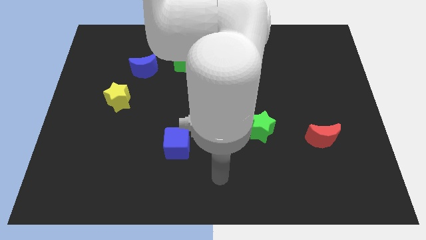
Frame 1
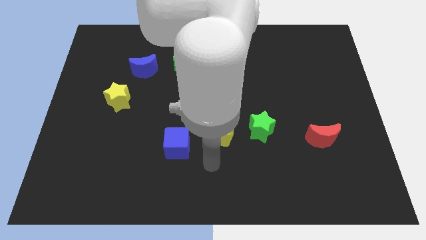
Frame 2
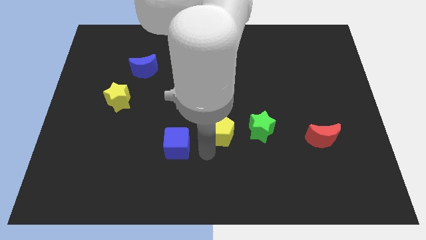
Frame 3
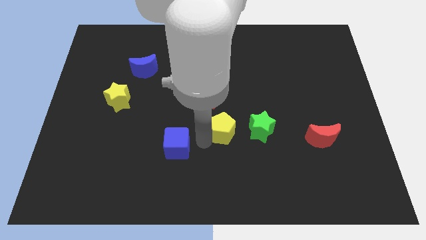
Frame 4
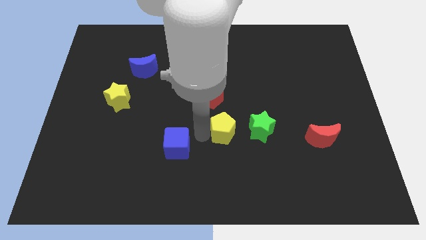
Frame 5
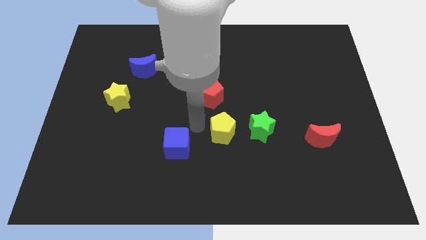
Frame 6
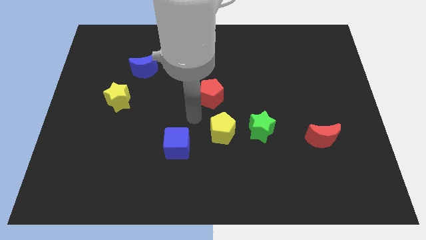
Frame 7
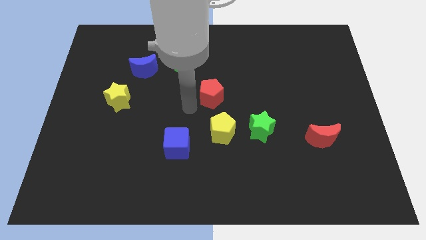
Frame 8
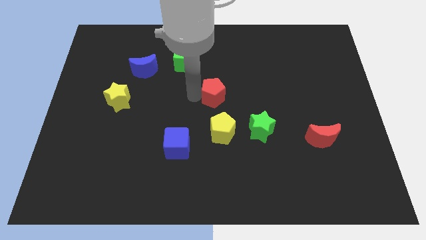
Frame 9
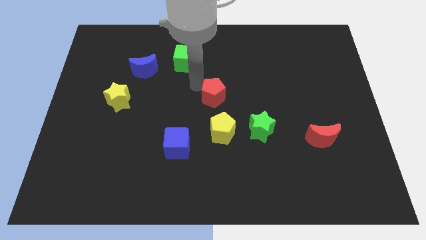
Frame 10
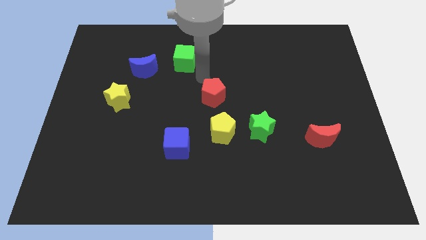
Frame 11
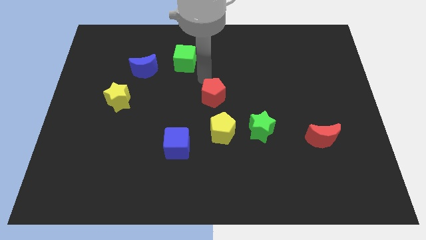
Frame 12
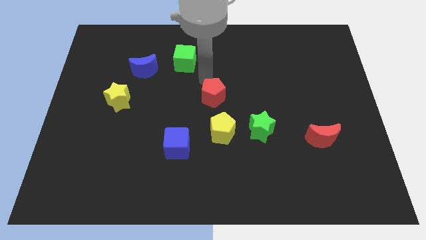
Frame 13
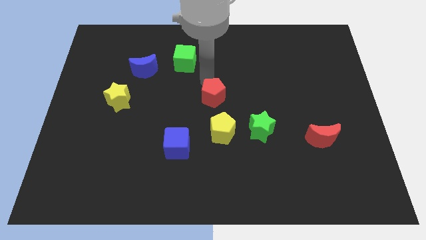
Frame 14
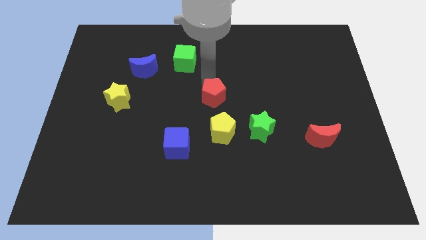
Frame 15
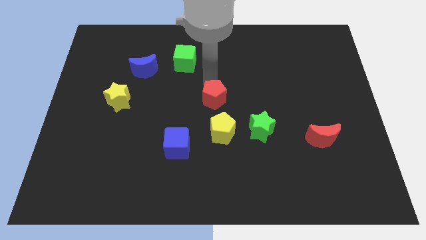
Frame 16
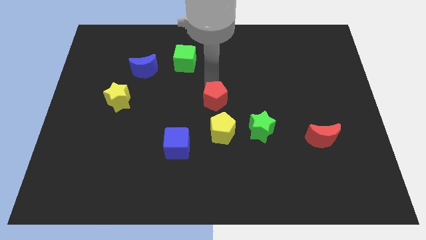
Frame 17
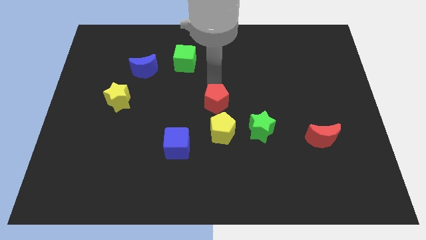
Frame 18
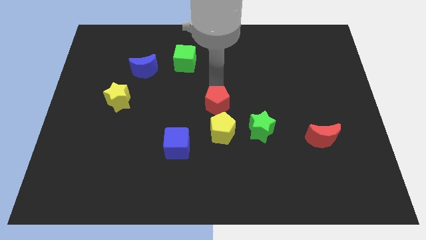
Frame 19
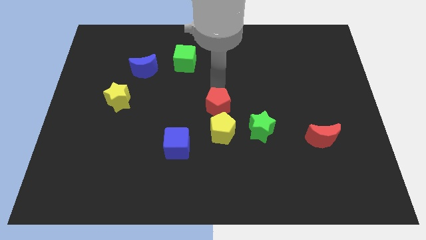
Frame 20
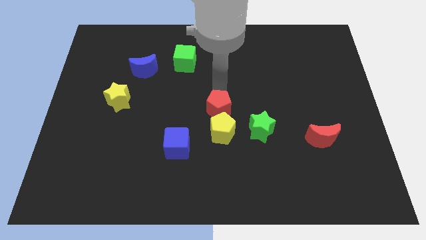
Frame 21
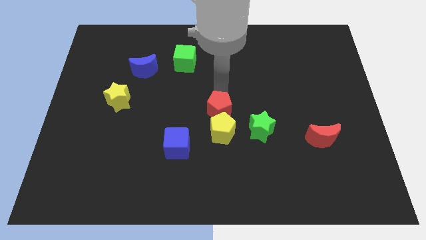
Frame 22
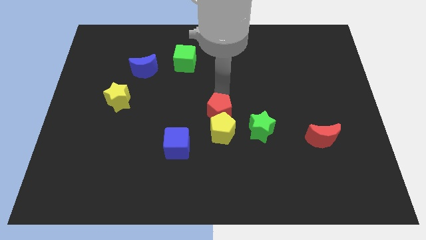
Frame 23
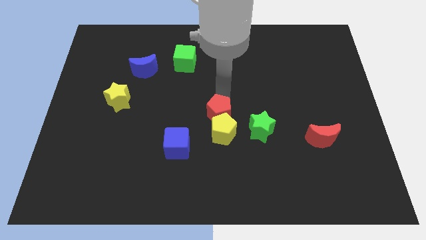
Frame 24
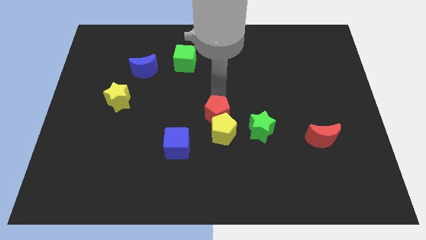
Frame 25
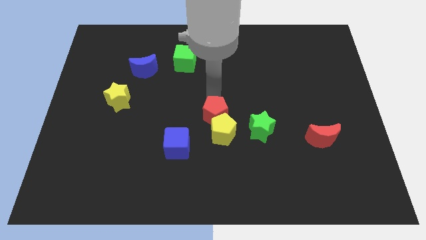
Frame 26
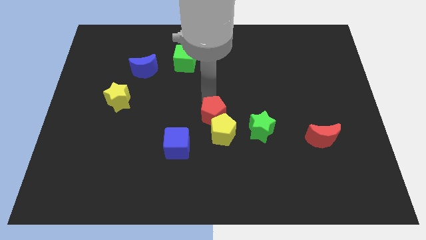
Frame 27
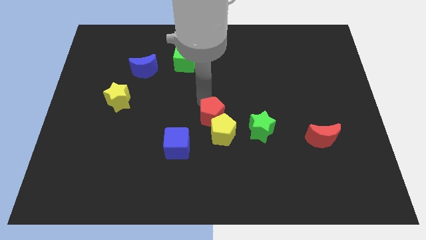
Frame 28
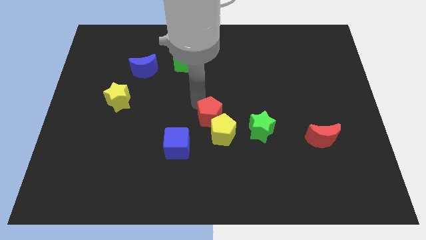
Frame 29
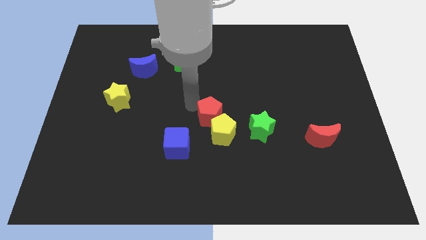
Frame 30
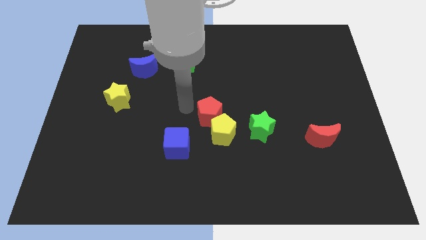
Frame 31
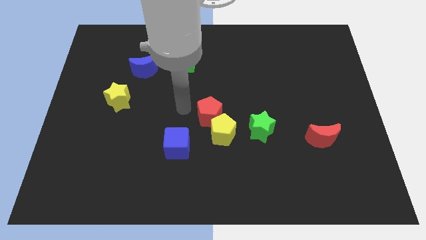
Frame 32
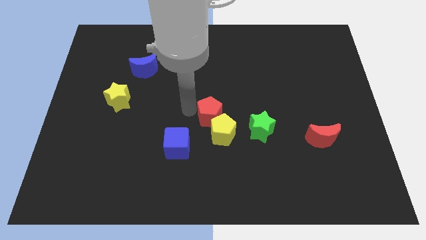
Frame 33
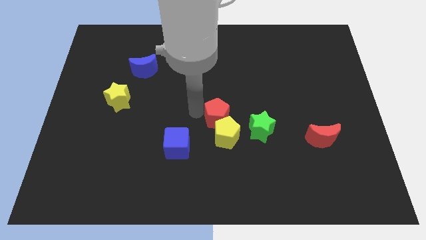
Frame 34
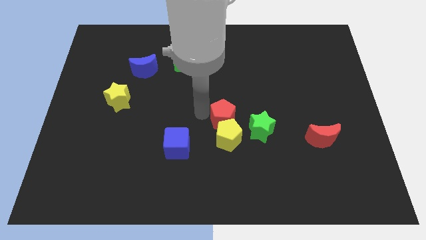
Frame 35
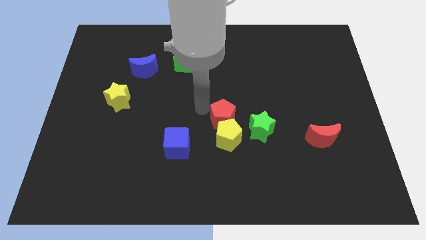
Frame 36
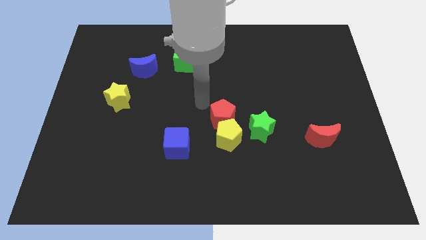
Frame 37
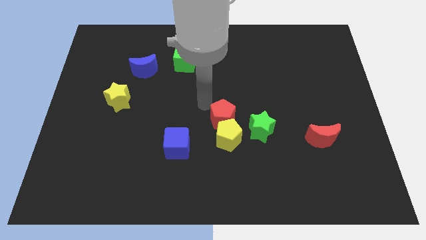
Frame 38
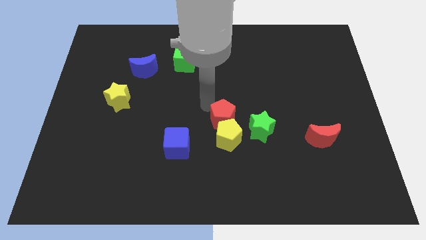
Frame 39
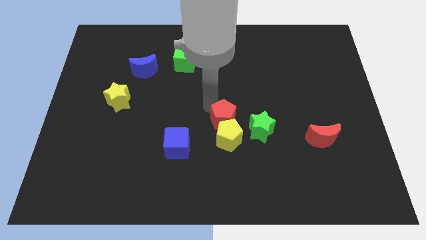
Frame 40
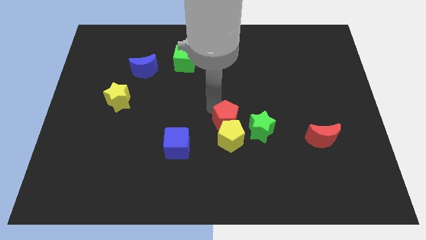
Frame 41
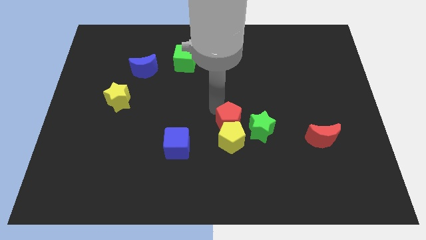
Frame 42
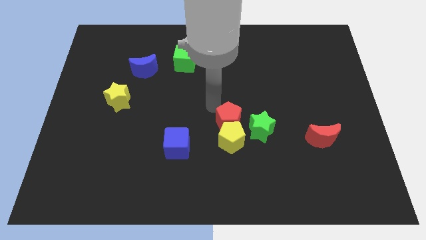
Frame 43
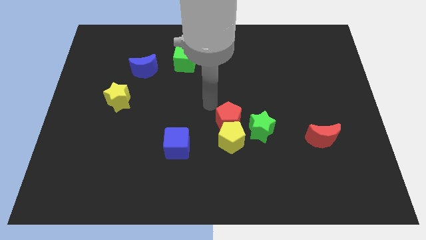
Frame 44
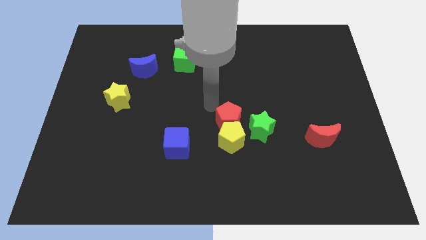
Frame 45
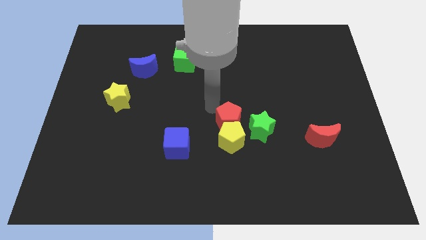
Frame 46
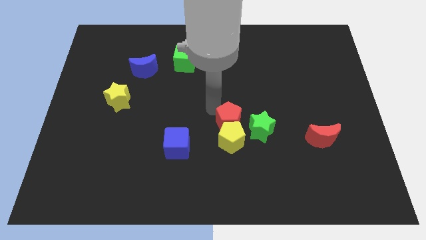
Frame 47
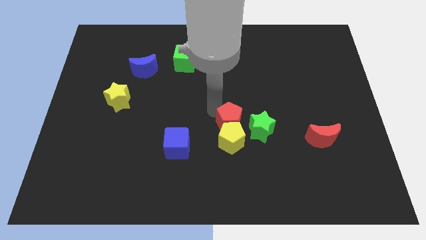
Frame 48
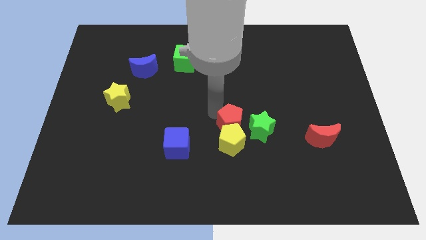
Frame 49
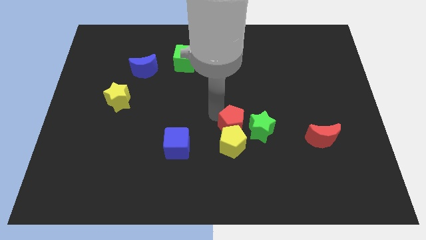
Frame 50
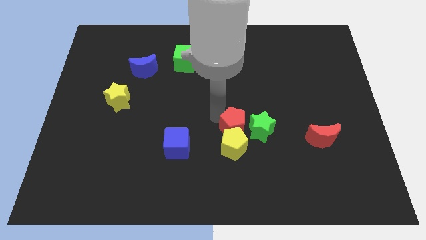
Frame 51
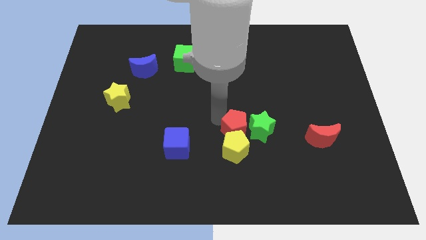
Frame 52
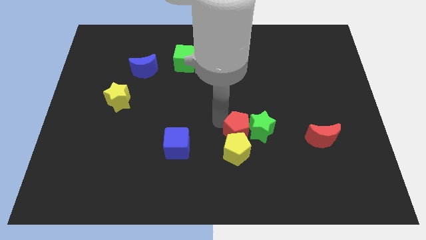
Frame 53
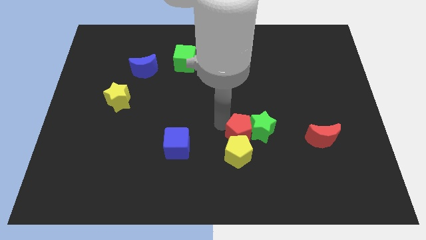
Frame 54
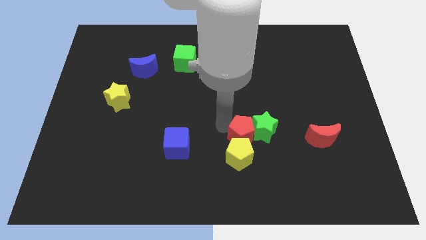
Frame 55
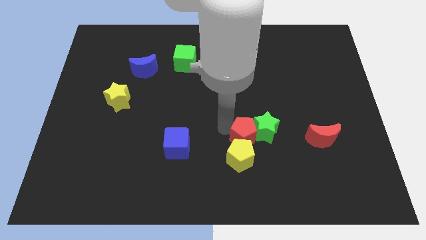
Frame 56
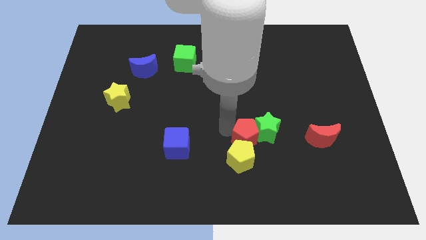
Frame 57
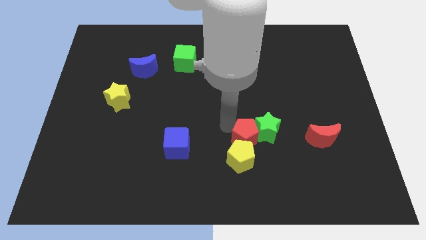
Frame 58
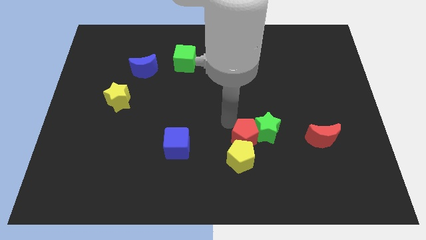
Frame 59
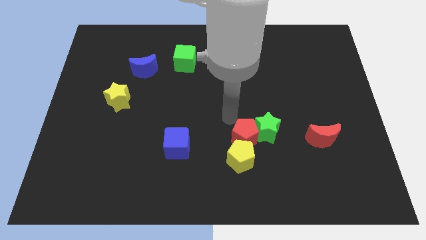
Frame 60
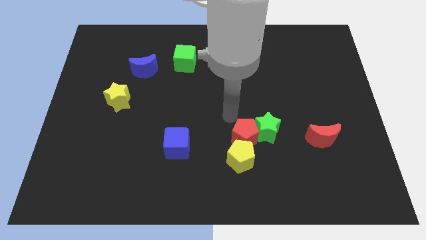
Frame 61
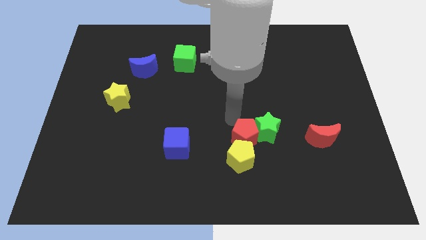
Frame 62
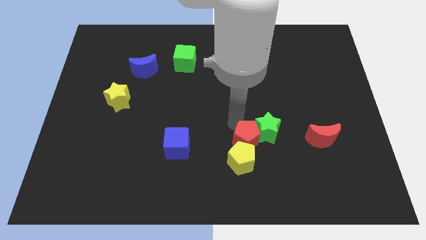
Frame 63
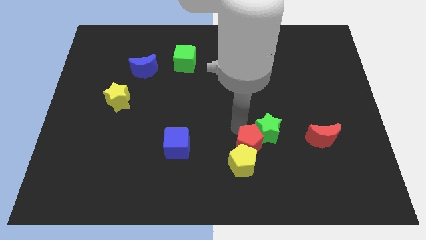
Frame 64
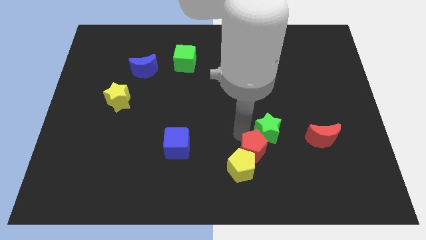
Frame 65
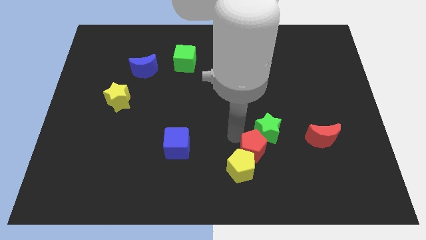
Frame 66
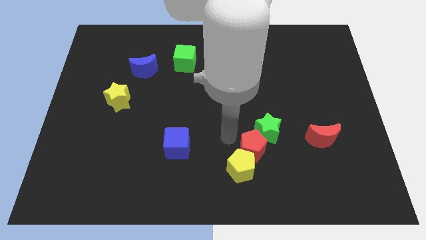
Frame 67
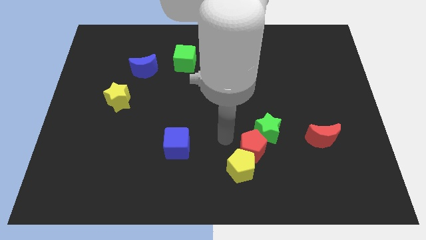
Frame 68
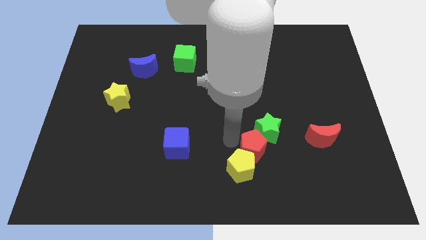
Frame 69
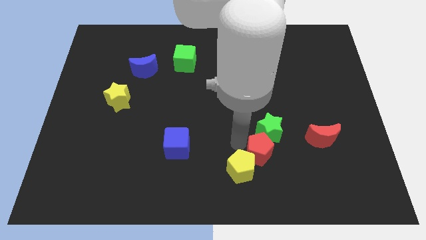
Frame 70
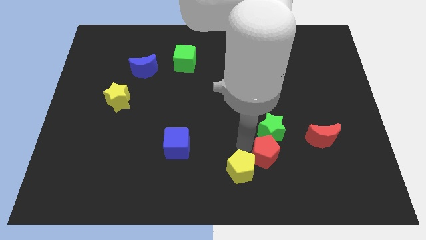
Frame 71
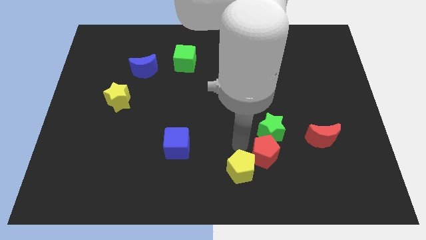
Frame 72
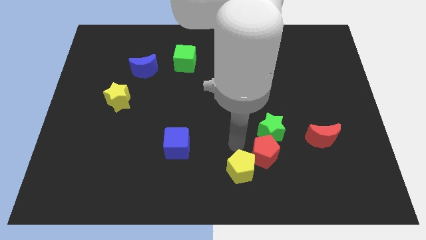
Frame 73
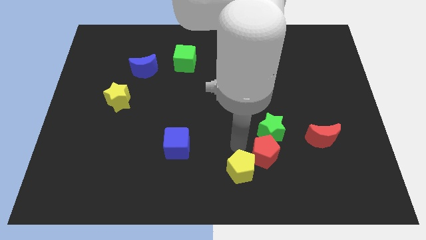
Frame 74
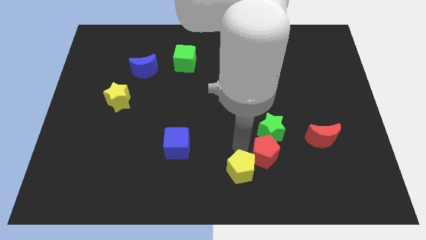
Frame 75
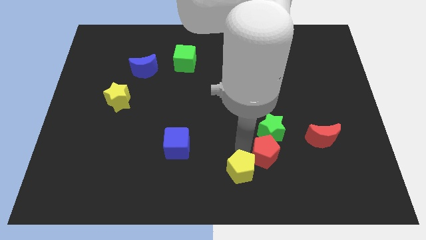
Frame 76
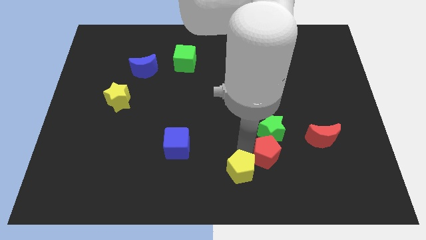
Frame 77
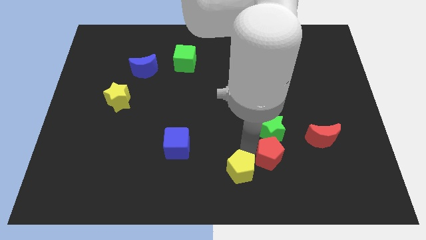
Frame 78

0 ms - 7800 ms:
slide the red pentagon downwards and to the right diagonally
